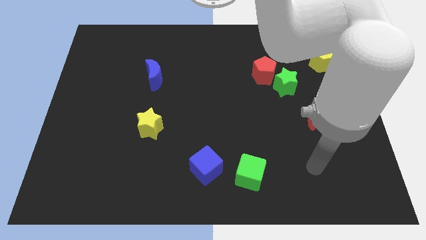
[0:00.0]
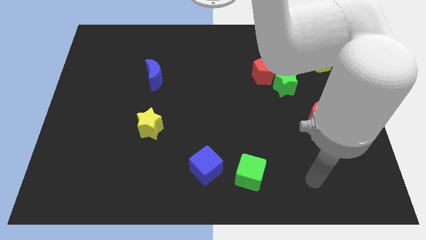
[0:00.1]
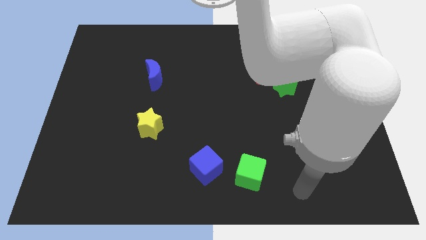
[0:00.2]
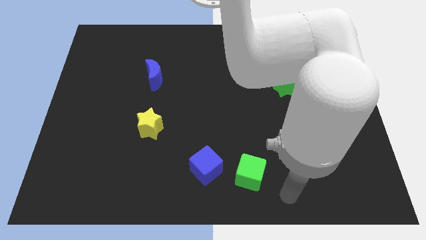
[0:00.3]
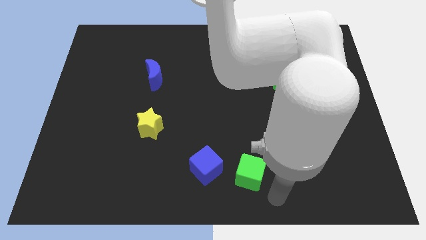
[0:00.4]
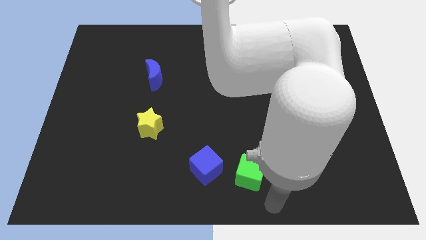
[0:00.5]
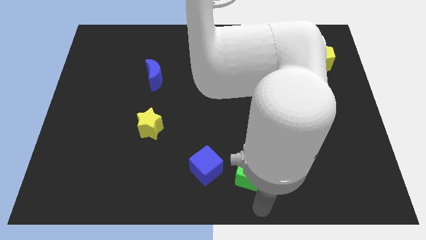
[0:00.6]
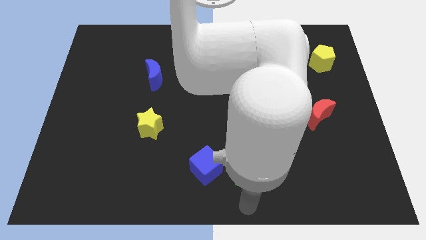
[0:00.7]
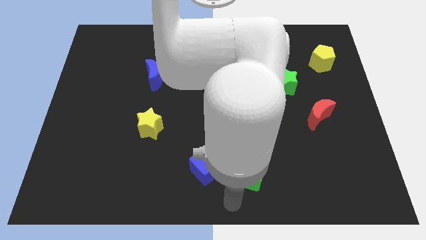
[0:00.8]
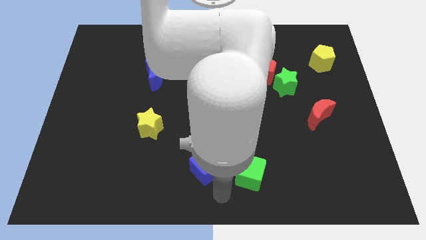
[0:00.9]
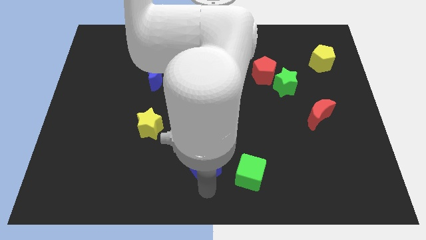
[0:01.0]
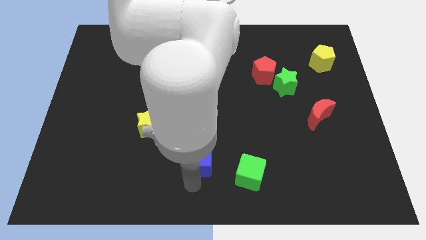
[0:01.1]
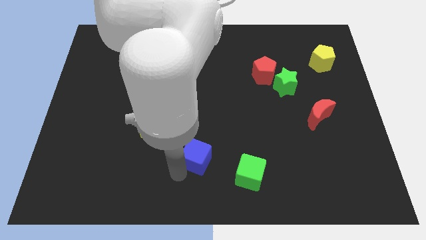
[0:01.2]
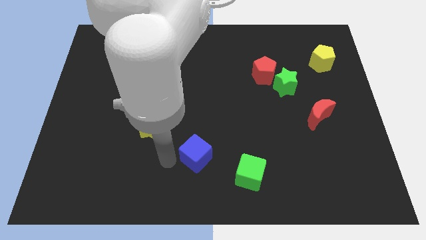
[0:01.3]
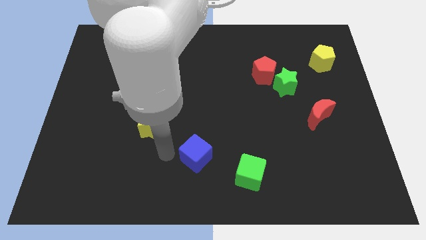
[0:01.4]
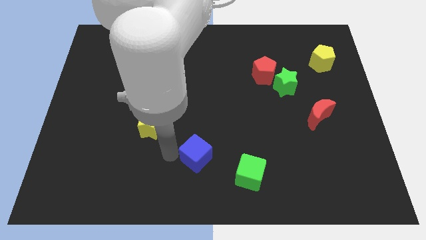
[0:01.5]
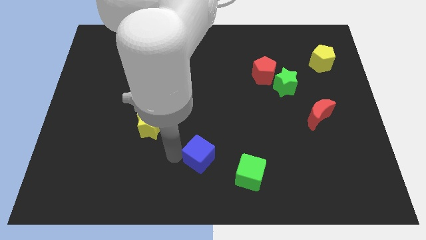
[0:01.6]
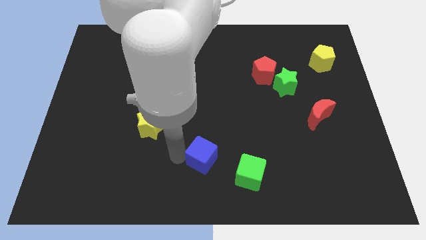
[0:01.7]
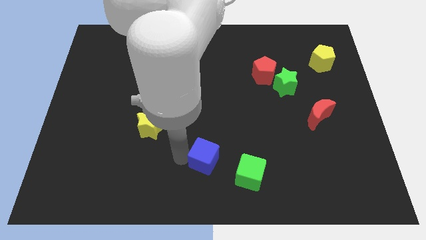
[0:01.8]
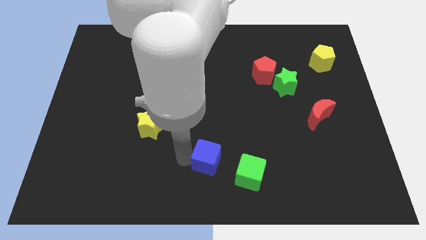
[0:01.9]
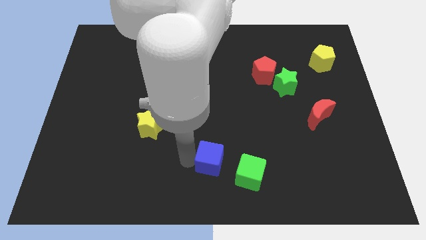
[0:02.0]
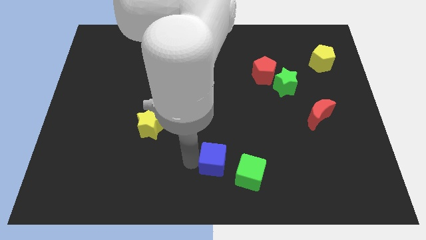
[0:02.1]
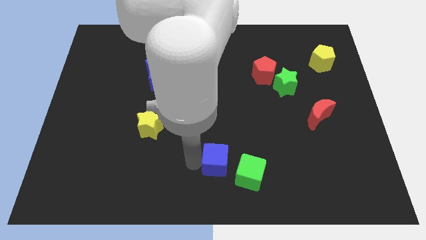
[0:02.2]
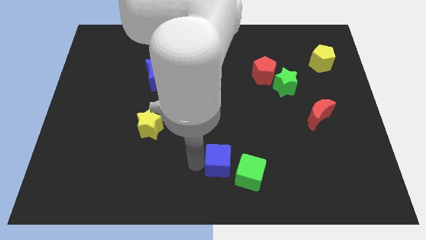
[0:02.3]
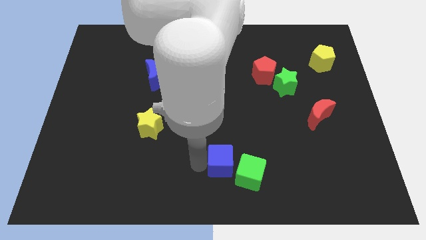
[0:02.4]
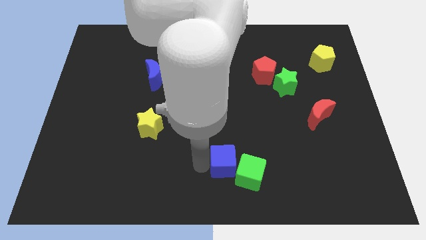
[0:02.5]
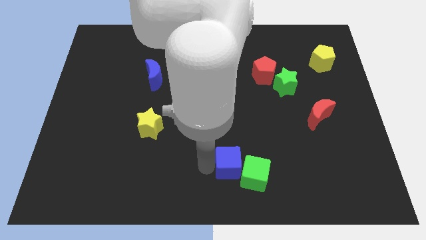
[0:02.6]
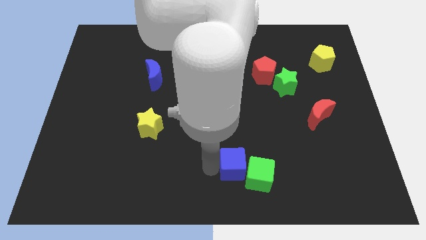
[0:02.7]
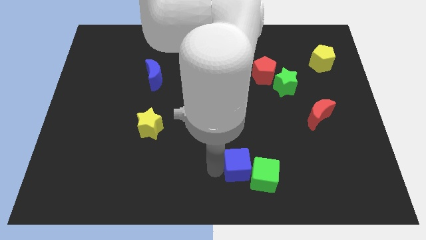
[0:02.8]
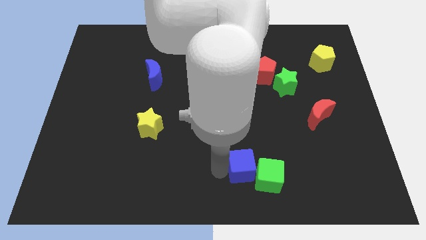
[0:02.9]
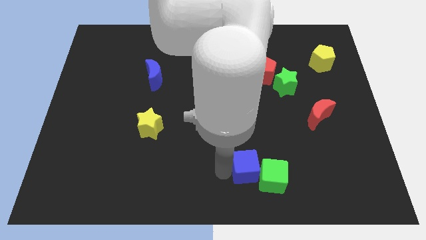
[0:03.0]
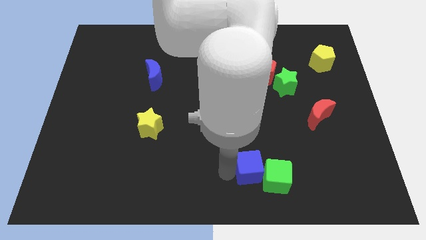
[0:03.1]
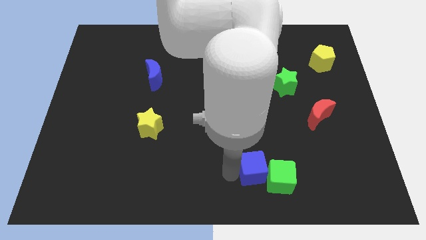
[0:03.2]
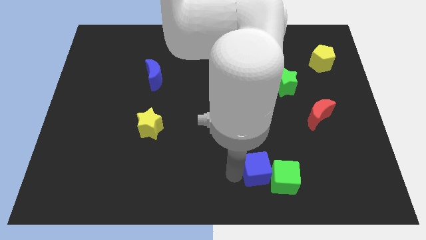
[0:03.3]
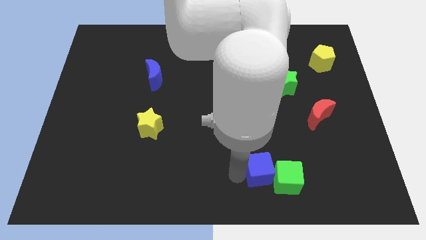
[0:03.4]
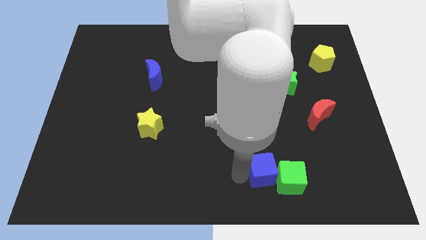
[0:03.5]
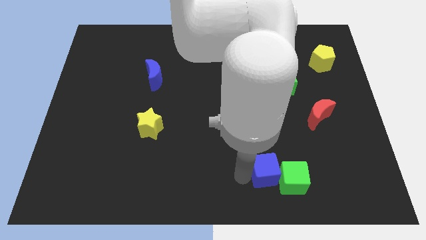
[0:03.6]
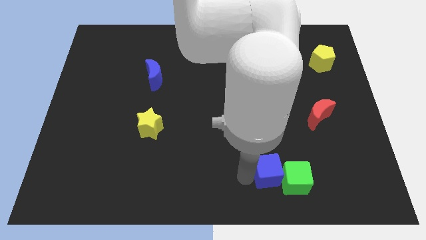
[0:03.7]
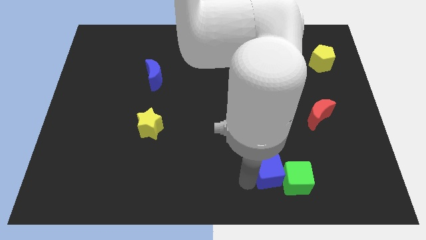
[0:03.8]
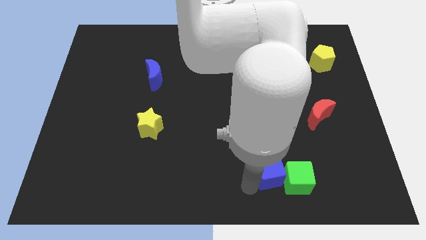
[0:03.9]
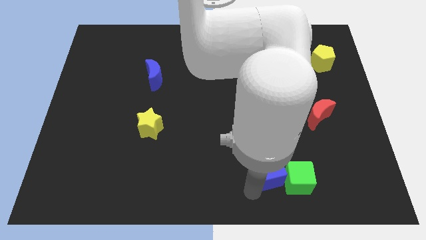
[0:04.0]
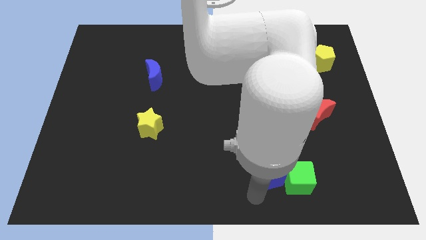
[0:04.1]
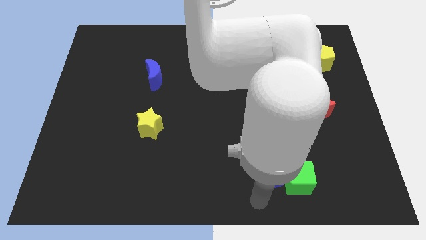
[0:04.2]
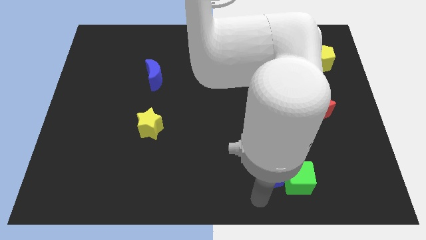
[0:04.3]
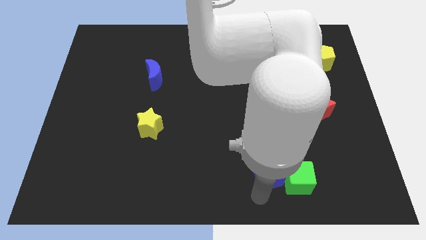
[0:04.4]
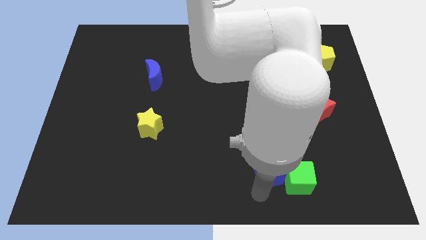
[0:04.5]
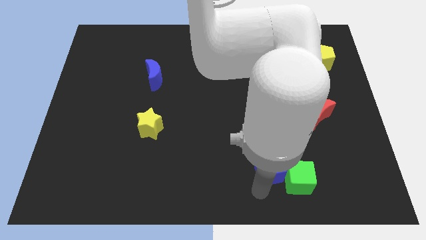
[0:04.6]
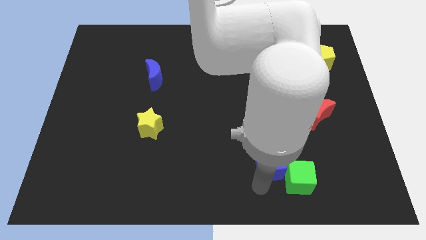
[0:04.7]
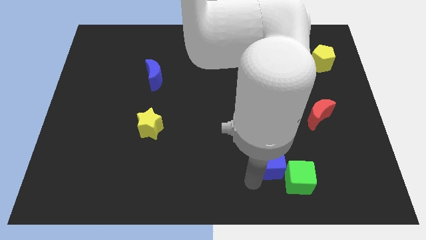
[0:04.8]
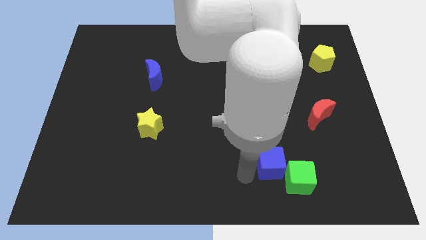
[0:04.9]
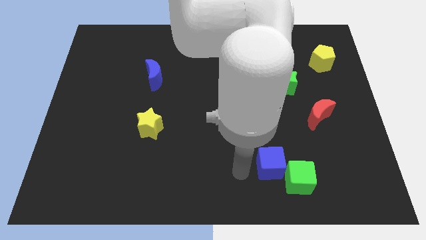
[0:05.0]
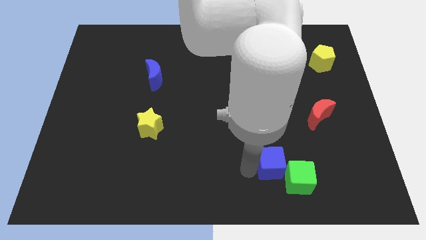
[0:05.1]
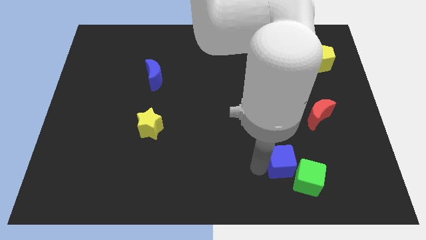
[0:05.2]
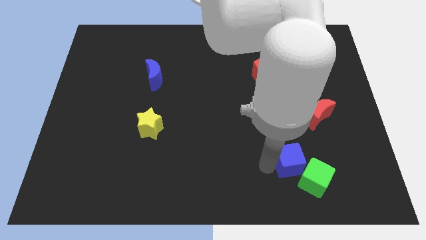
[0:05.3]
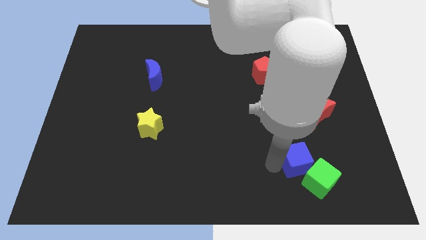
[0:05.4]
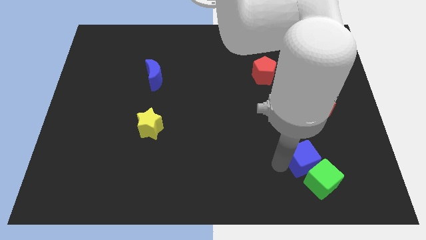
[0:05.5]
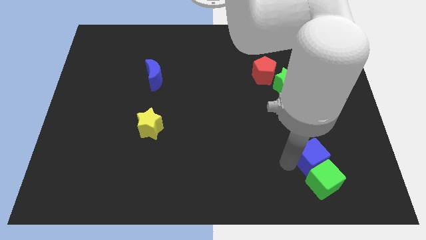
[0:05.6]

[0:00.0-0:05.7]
move the blue cube to the bottom of the red moon

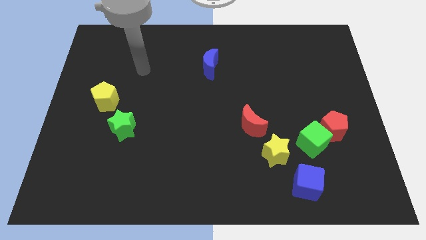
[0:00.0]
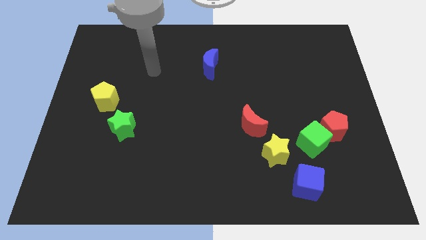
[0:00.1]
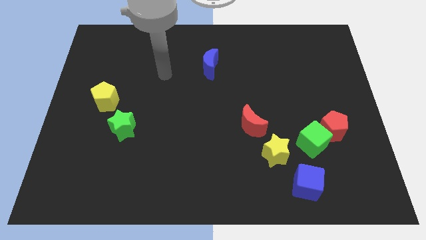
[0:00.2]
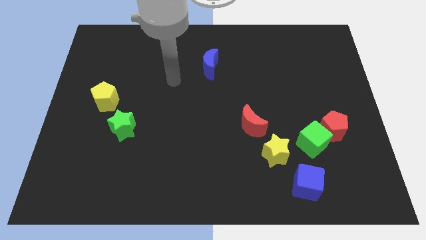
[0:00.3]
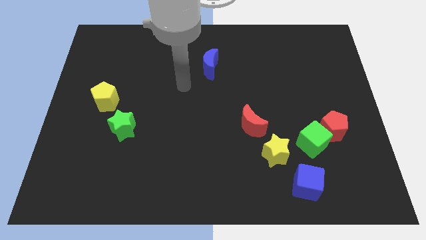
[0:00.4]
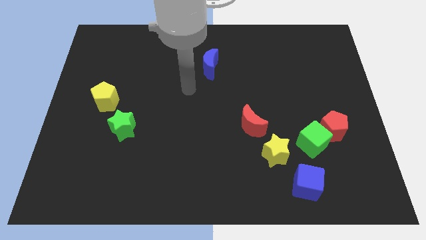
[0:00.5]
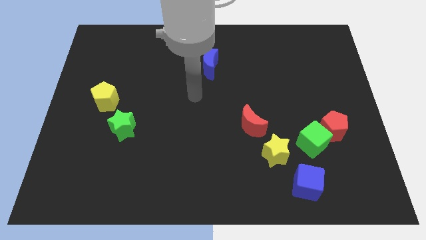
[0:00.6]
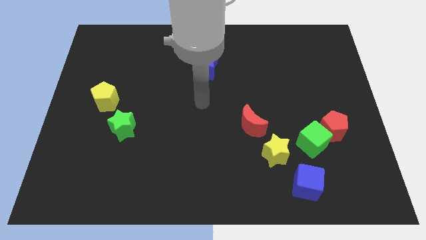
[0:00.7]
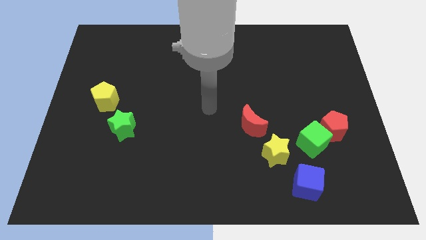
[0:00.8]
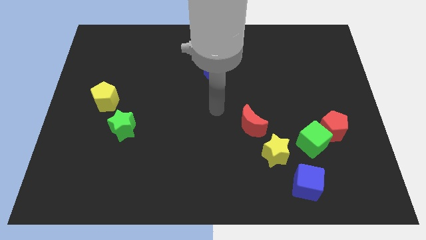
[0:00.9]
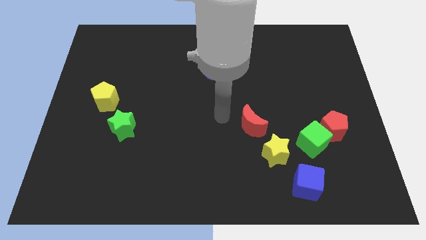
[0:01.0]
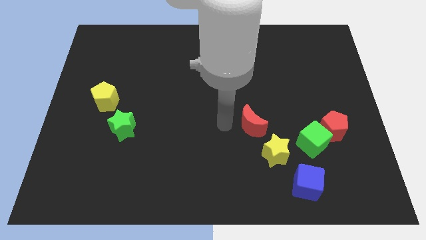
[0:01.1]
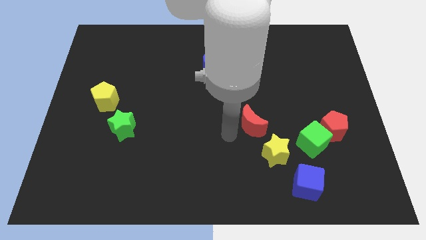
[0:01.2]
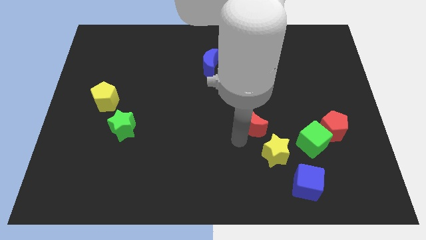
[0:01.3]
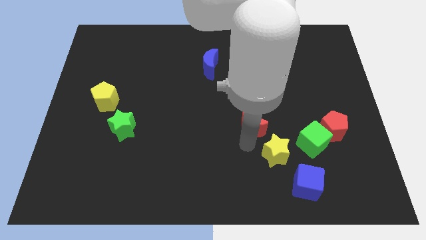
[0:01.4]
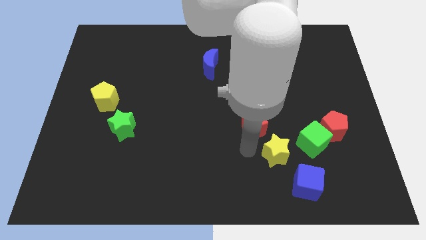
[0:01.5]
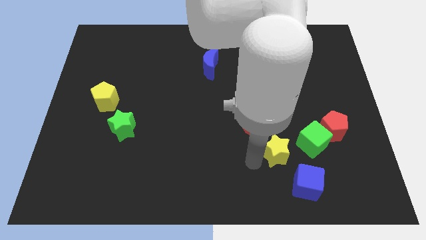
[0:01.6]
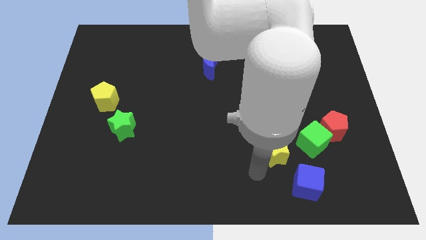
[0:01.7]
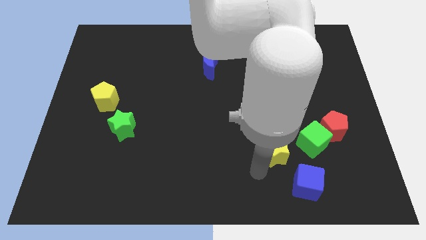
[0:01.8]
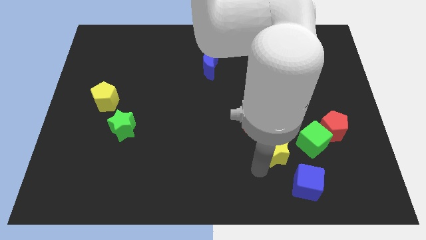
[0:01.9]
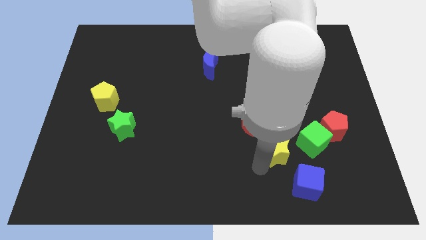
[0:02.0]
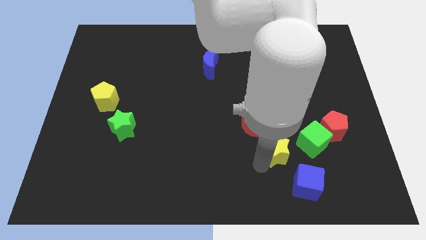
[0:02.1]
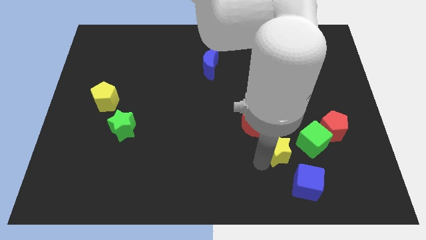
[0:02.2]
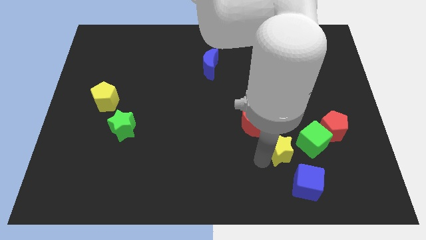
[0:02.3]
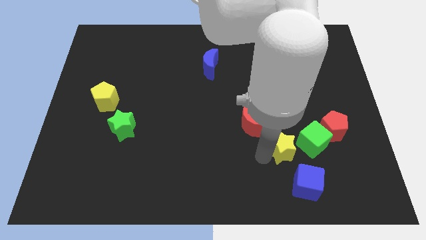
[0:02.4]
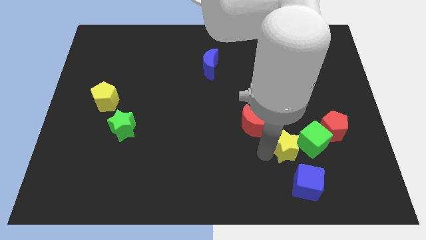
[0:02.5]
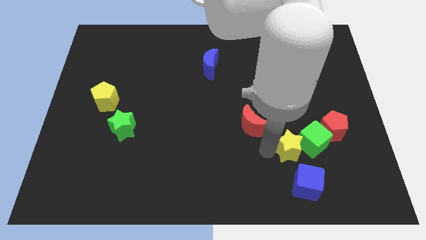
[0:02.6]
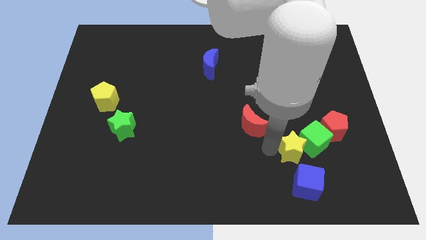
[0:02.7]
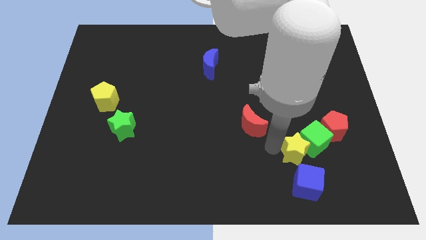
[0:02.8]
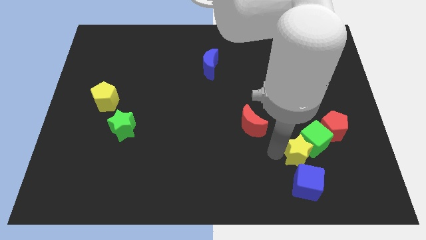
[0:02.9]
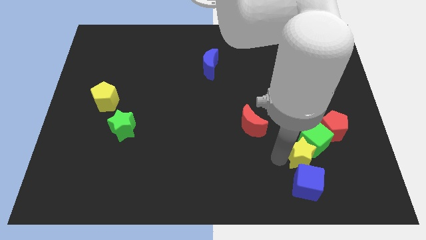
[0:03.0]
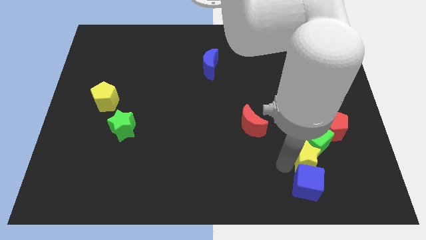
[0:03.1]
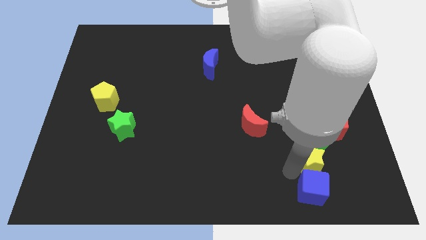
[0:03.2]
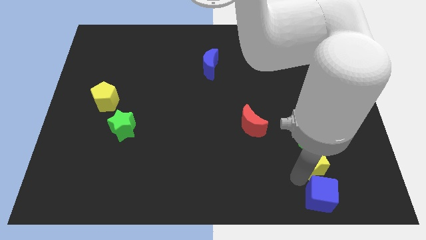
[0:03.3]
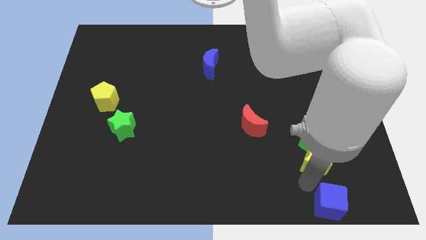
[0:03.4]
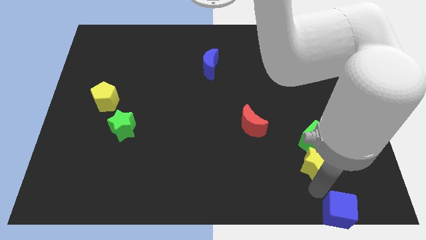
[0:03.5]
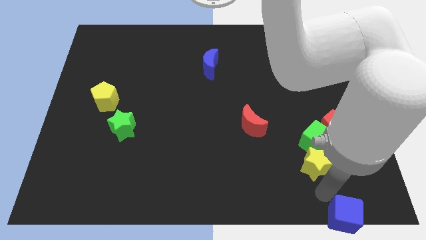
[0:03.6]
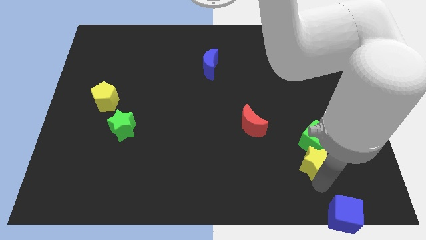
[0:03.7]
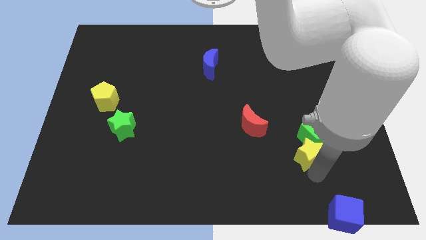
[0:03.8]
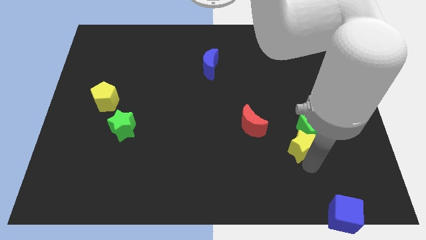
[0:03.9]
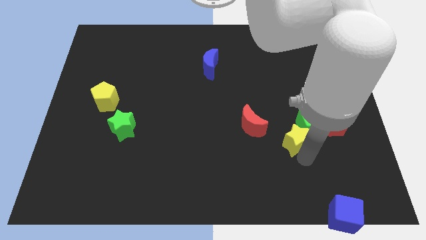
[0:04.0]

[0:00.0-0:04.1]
put the yellow star to the right of the red moon
